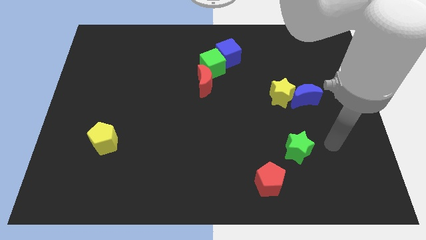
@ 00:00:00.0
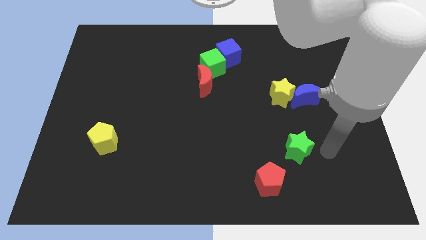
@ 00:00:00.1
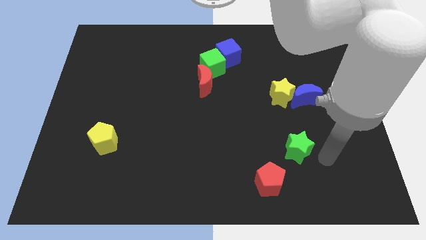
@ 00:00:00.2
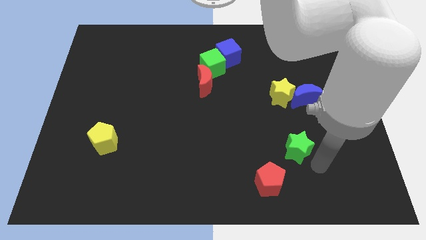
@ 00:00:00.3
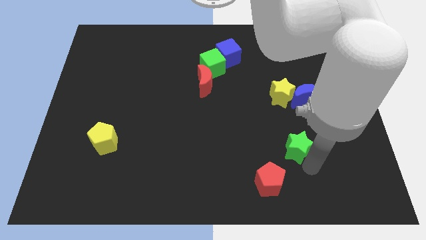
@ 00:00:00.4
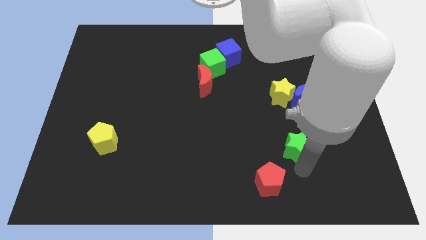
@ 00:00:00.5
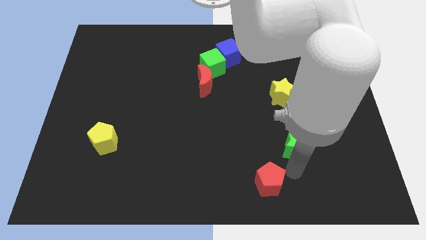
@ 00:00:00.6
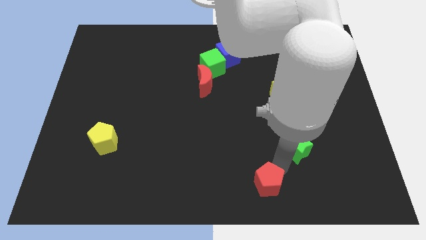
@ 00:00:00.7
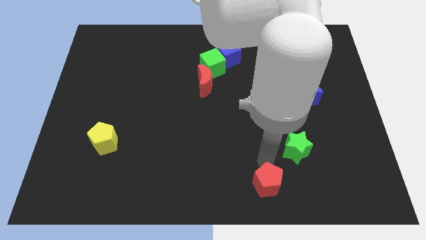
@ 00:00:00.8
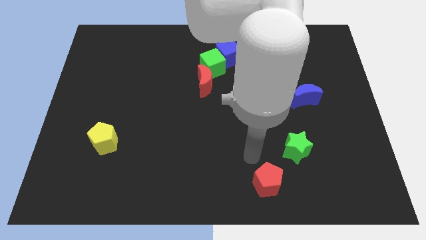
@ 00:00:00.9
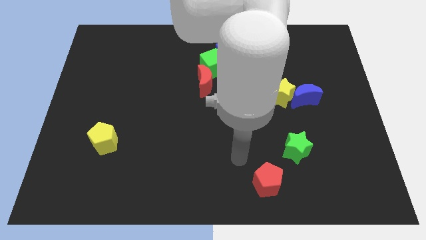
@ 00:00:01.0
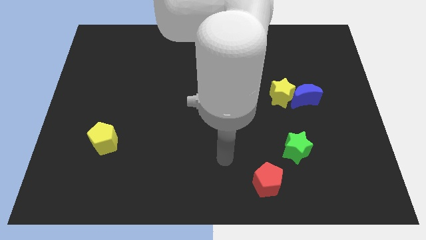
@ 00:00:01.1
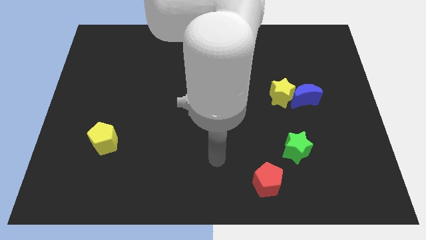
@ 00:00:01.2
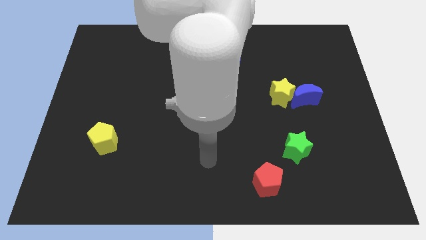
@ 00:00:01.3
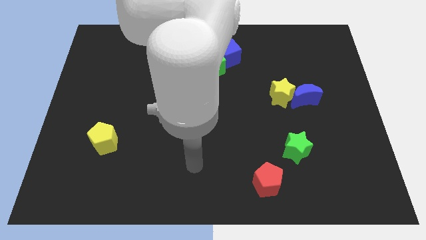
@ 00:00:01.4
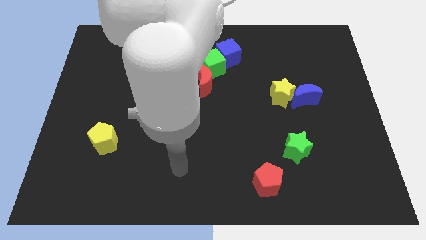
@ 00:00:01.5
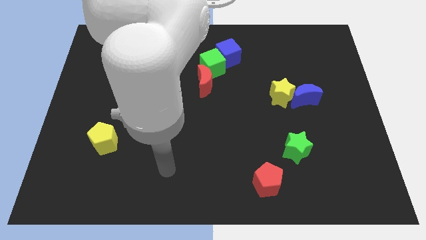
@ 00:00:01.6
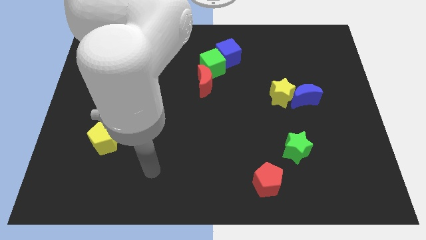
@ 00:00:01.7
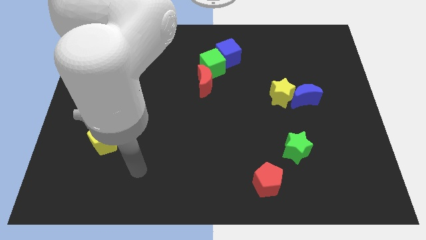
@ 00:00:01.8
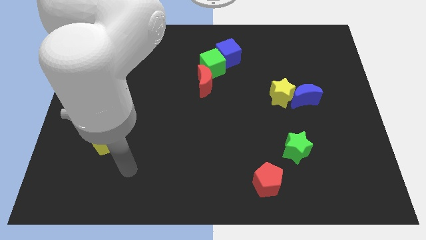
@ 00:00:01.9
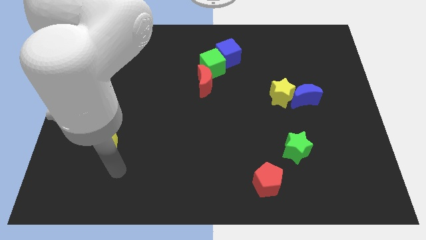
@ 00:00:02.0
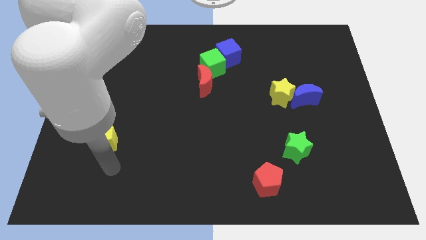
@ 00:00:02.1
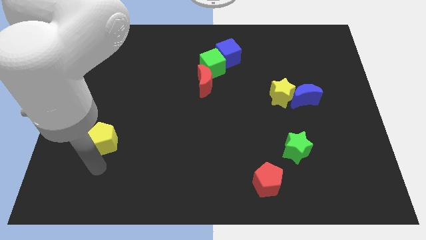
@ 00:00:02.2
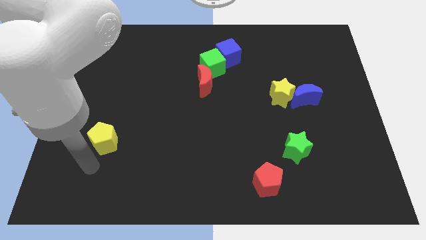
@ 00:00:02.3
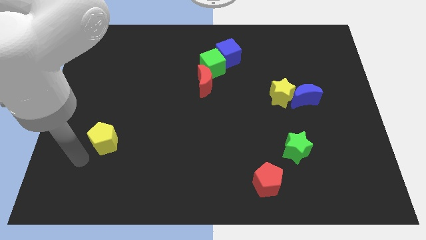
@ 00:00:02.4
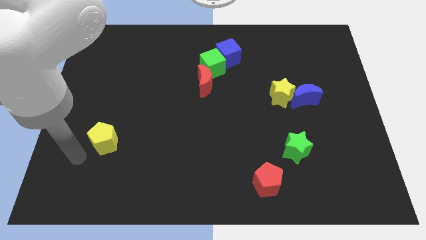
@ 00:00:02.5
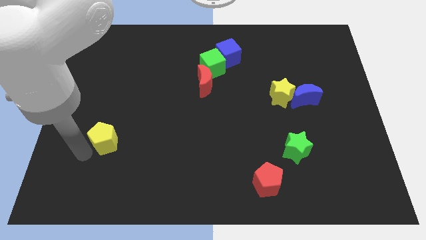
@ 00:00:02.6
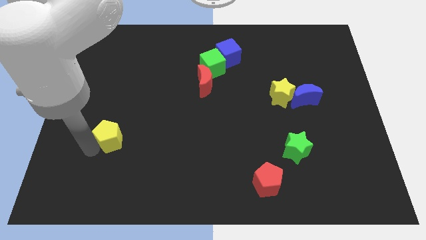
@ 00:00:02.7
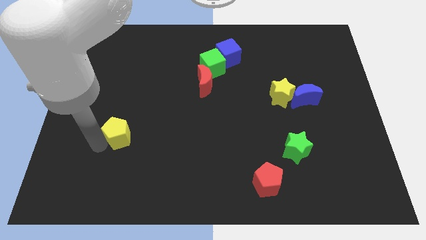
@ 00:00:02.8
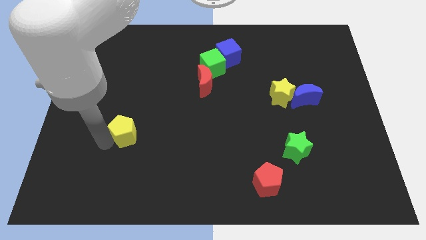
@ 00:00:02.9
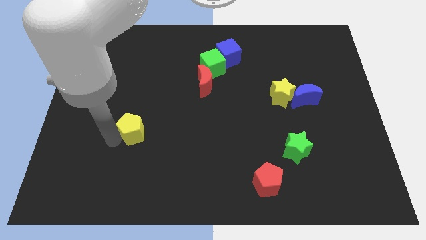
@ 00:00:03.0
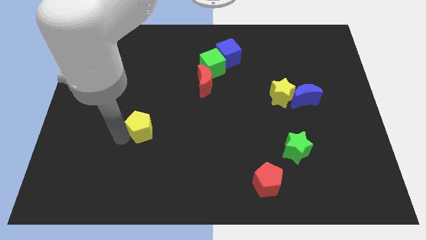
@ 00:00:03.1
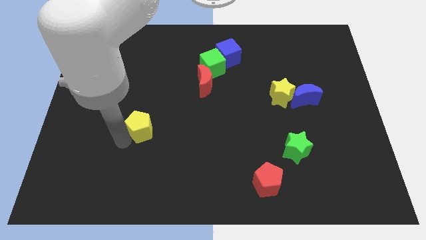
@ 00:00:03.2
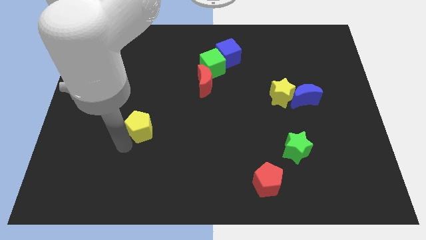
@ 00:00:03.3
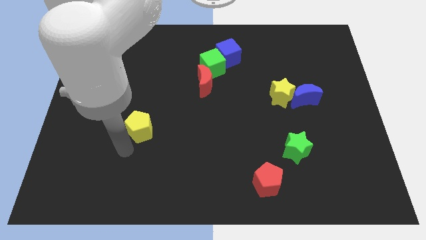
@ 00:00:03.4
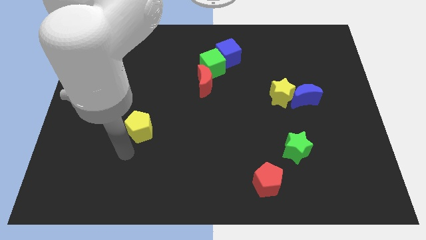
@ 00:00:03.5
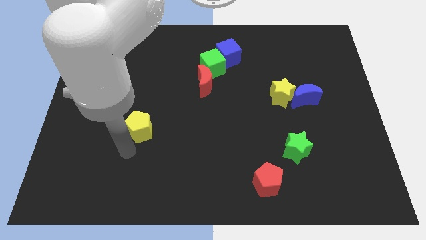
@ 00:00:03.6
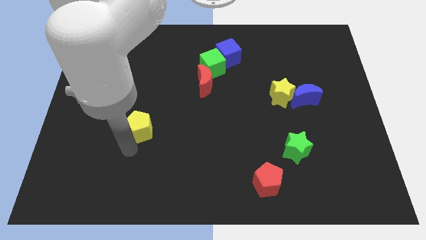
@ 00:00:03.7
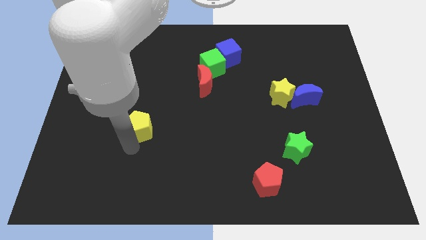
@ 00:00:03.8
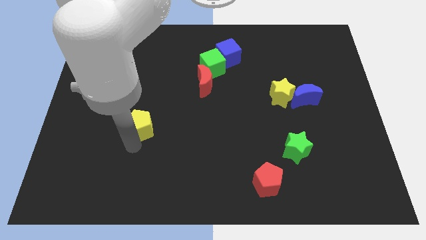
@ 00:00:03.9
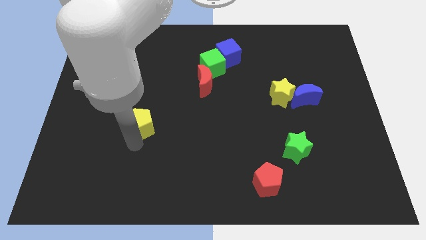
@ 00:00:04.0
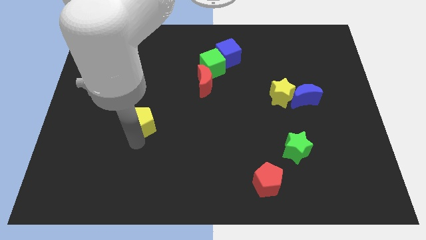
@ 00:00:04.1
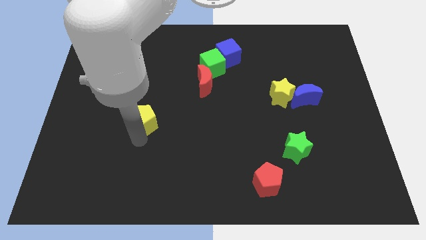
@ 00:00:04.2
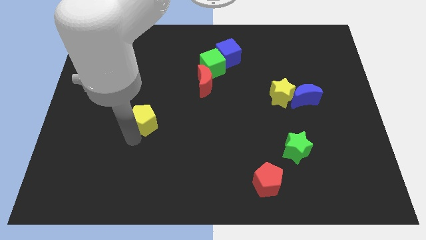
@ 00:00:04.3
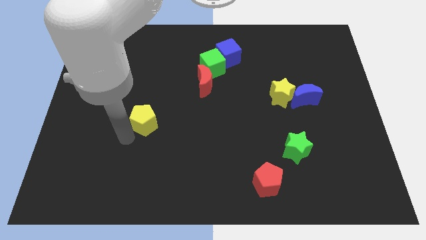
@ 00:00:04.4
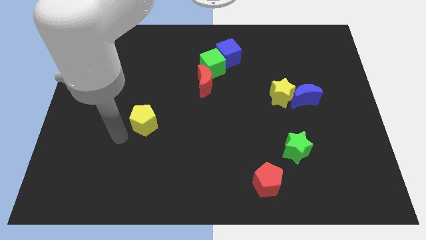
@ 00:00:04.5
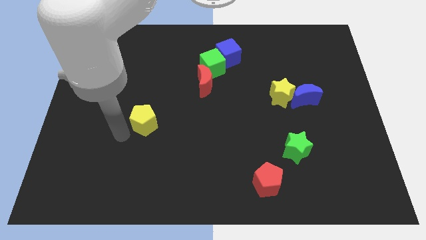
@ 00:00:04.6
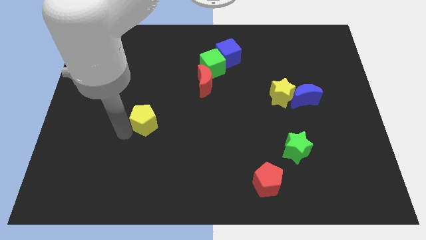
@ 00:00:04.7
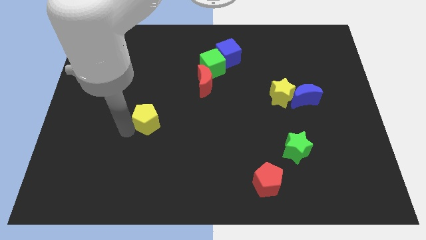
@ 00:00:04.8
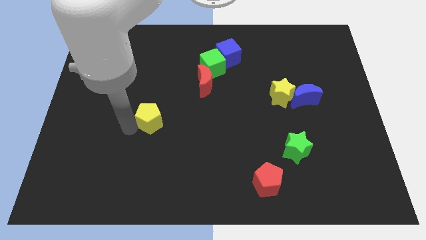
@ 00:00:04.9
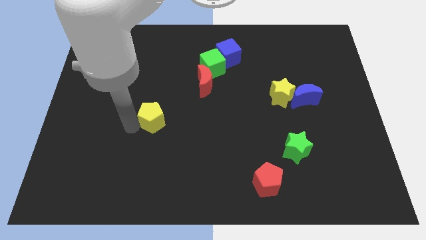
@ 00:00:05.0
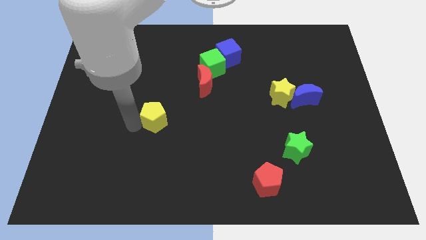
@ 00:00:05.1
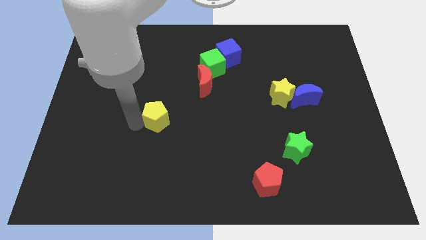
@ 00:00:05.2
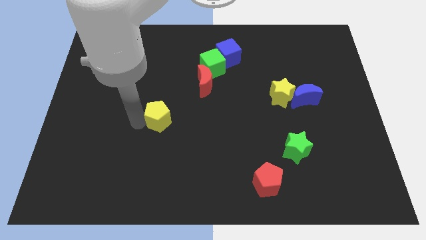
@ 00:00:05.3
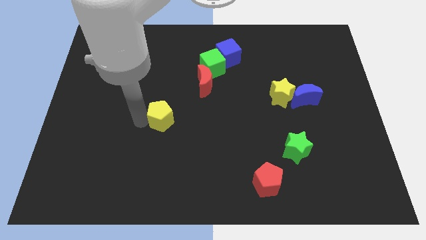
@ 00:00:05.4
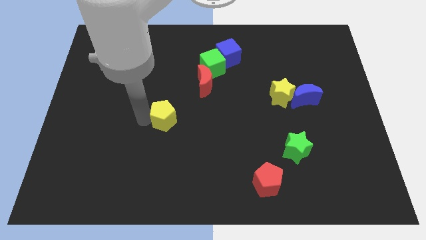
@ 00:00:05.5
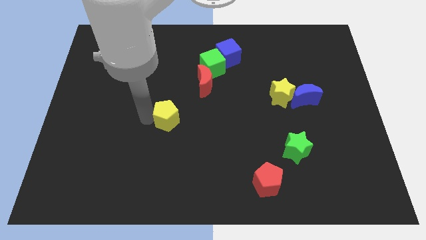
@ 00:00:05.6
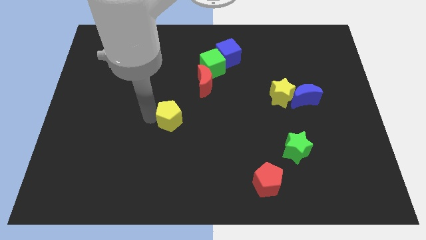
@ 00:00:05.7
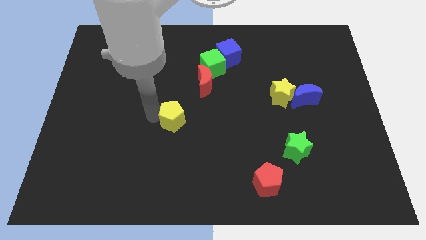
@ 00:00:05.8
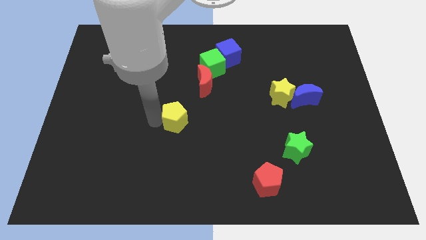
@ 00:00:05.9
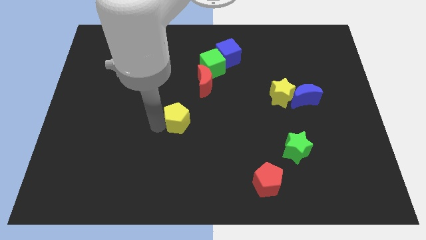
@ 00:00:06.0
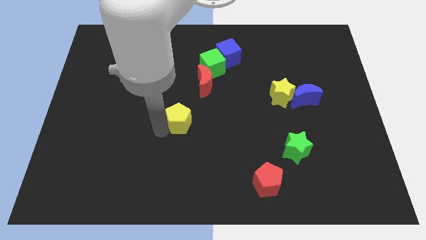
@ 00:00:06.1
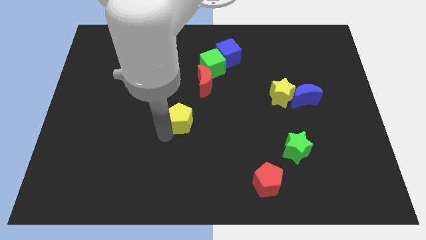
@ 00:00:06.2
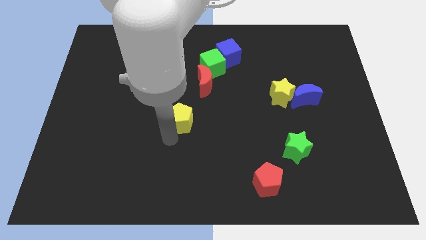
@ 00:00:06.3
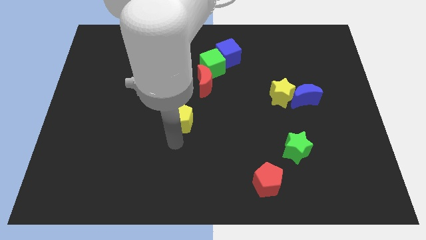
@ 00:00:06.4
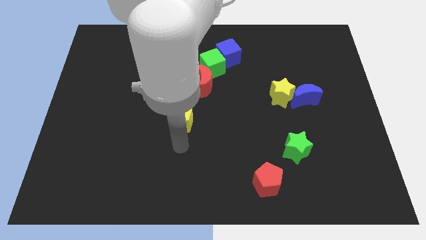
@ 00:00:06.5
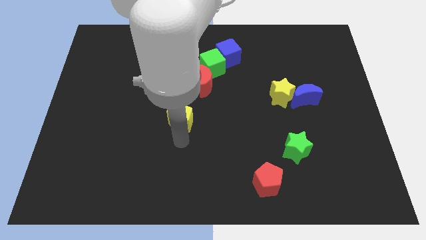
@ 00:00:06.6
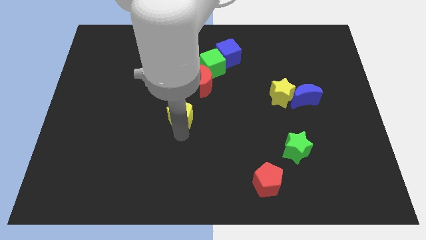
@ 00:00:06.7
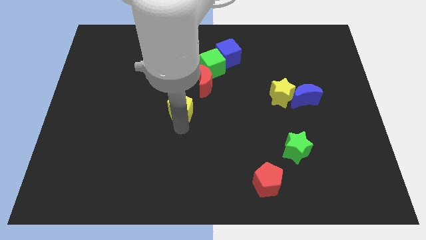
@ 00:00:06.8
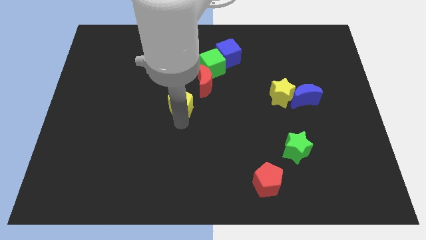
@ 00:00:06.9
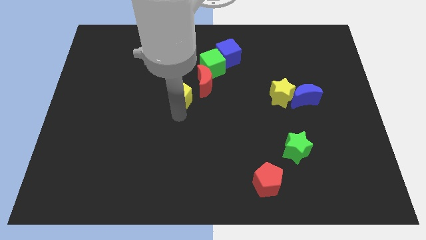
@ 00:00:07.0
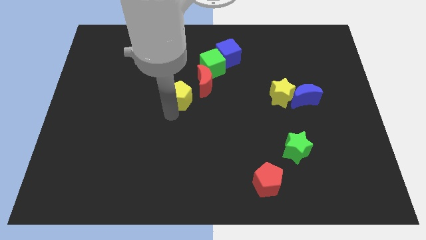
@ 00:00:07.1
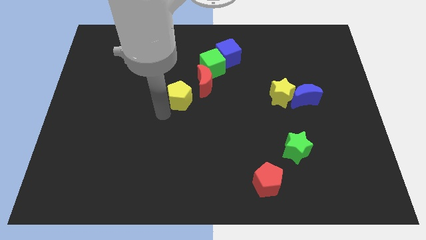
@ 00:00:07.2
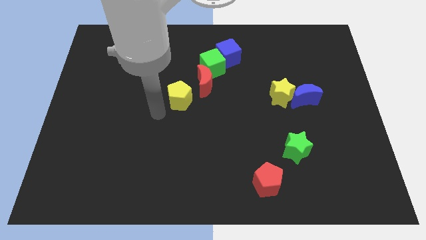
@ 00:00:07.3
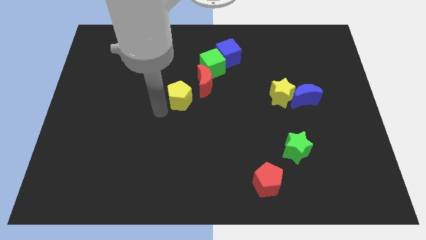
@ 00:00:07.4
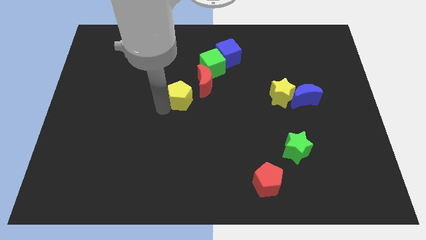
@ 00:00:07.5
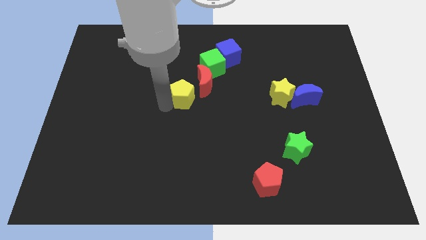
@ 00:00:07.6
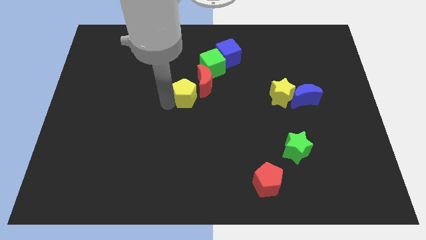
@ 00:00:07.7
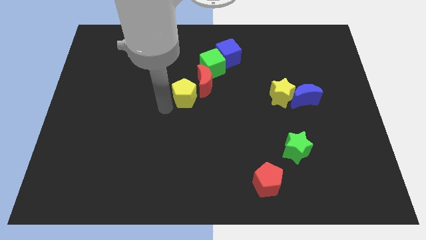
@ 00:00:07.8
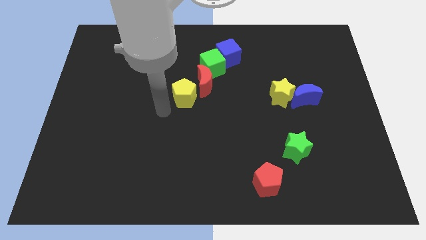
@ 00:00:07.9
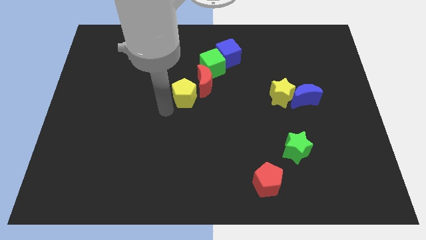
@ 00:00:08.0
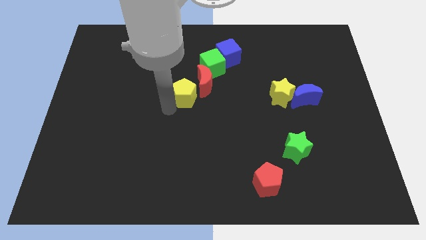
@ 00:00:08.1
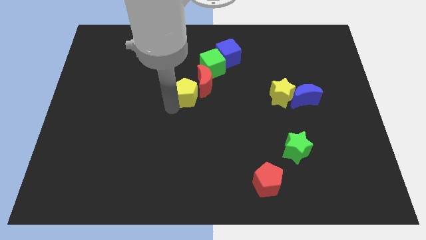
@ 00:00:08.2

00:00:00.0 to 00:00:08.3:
put the yellow pentagon close to the red moon
